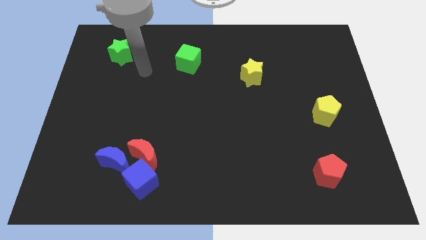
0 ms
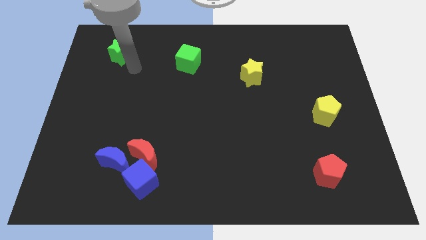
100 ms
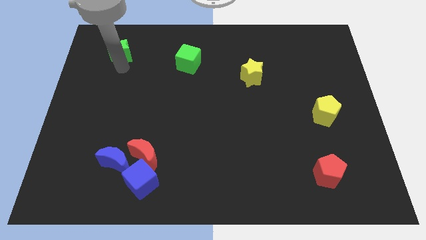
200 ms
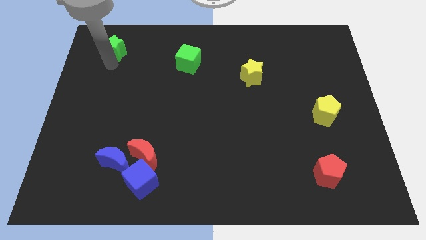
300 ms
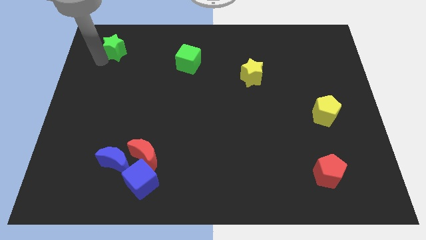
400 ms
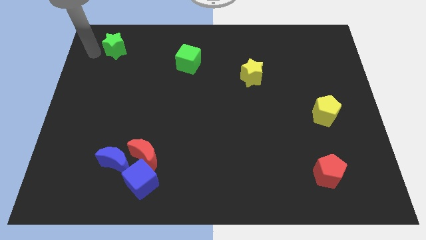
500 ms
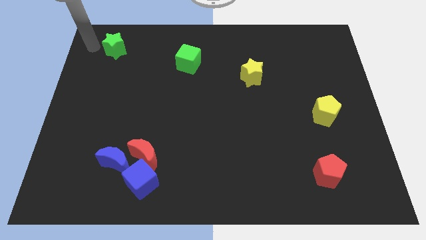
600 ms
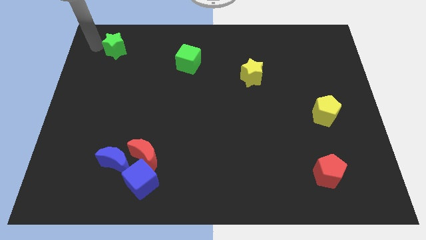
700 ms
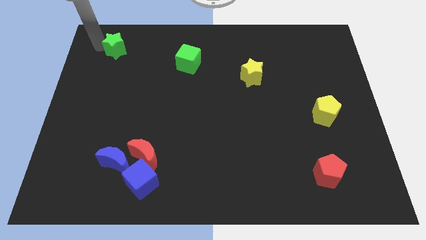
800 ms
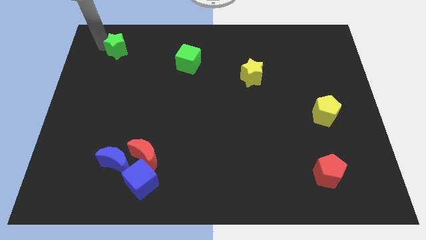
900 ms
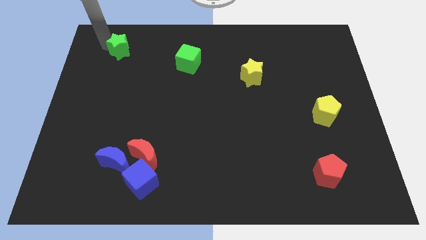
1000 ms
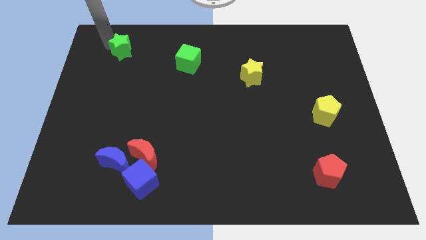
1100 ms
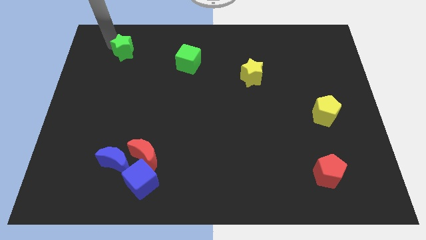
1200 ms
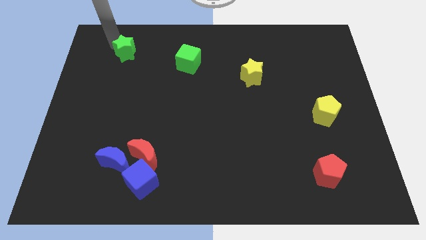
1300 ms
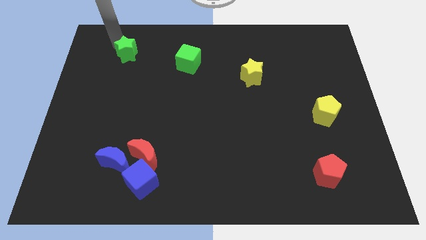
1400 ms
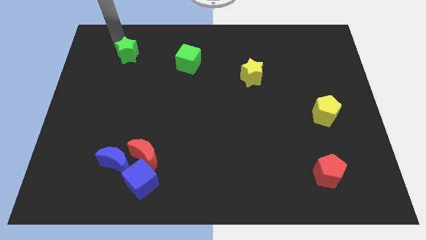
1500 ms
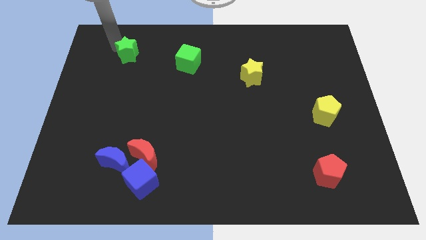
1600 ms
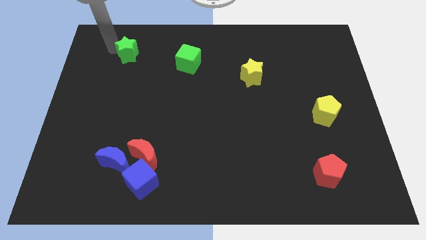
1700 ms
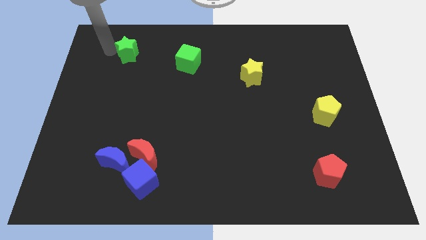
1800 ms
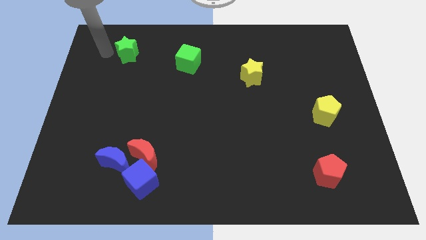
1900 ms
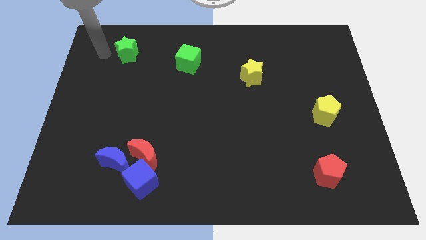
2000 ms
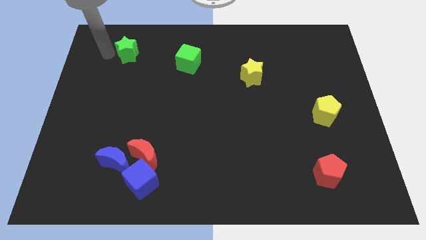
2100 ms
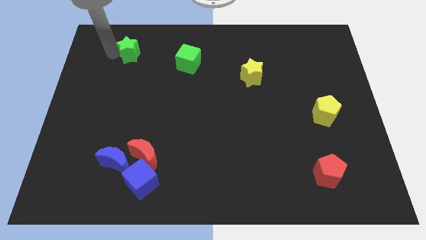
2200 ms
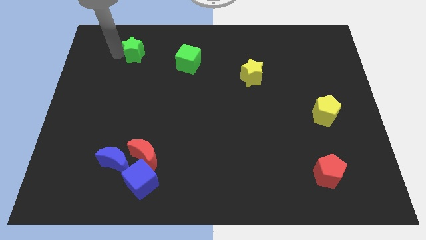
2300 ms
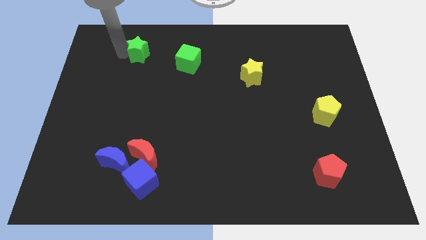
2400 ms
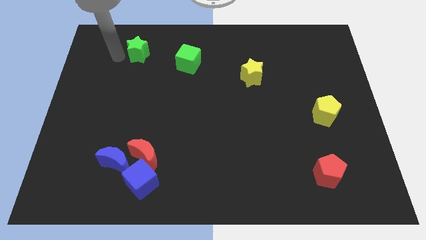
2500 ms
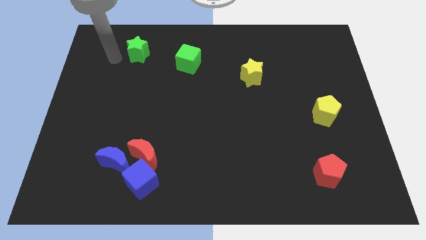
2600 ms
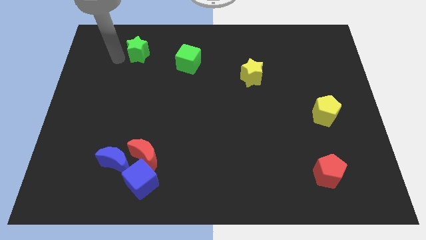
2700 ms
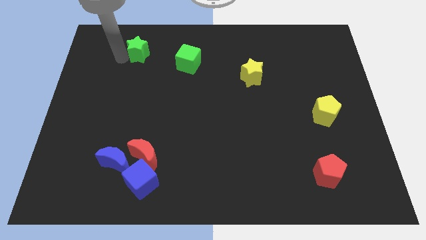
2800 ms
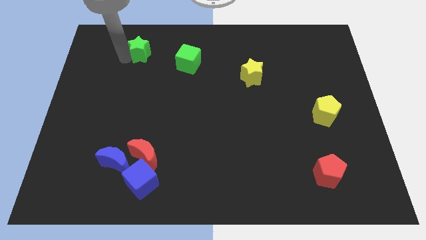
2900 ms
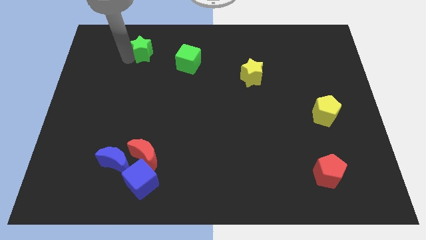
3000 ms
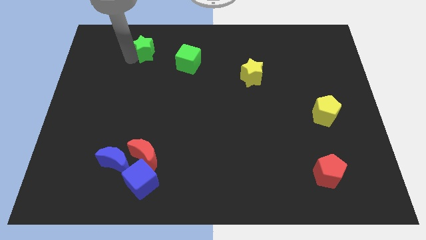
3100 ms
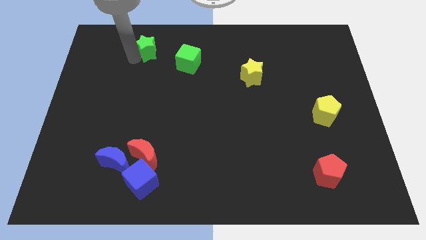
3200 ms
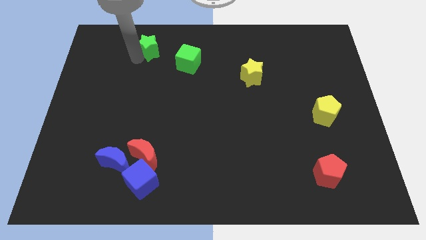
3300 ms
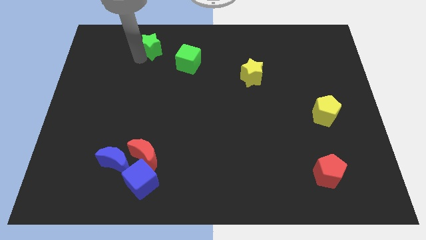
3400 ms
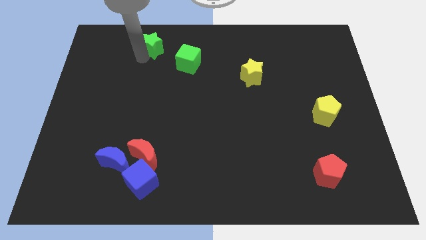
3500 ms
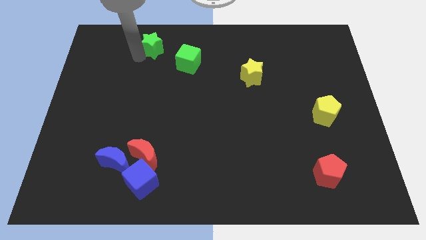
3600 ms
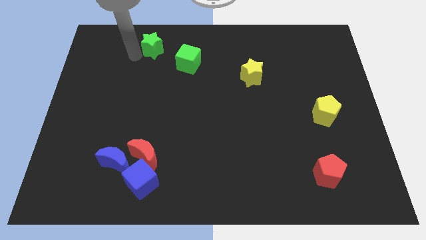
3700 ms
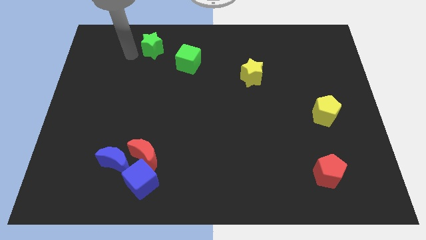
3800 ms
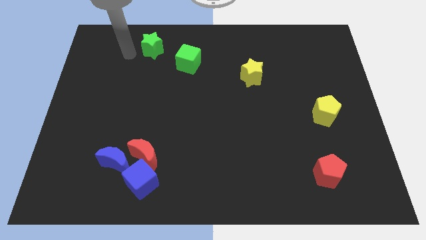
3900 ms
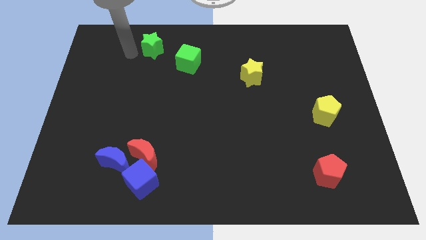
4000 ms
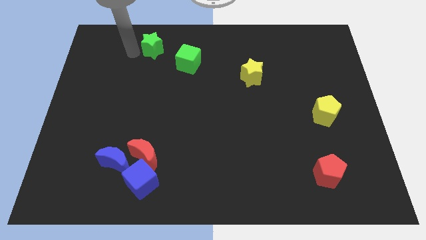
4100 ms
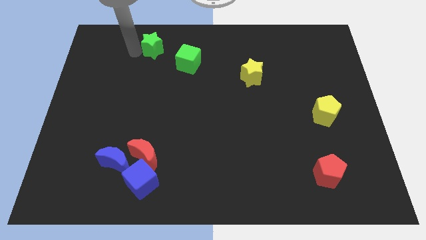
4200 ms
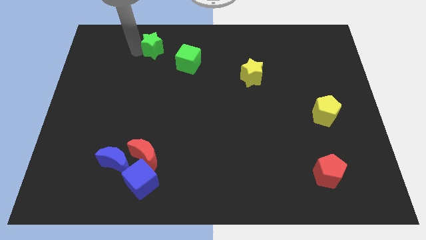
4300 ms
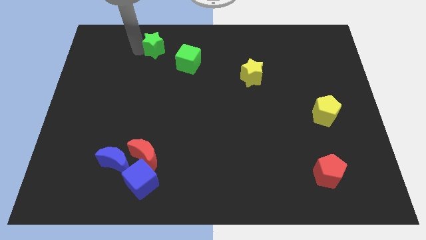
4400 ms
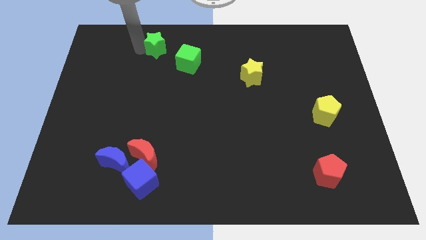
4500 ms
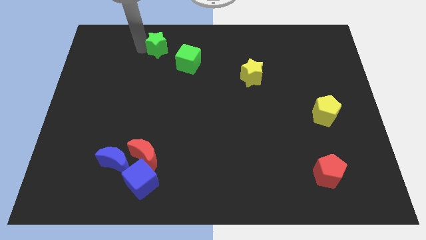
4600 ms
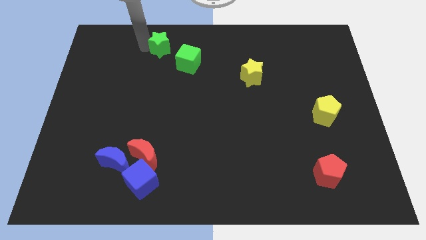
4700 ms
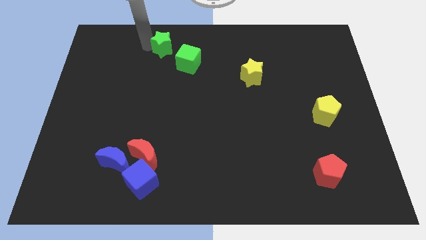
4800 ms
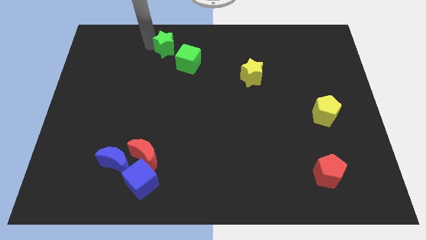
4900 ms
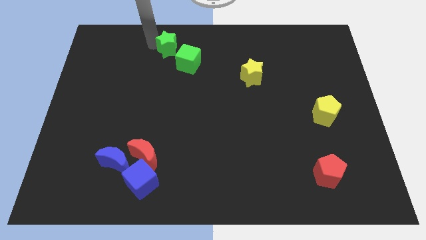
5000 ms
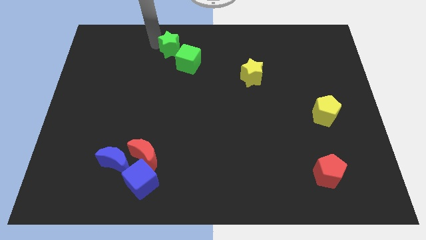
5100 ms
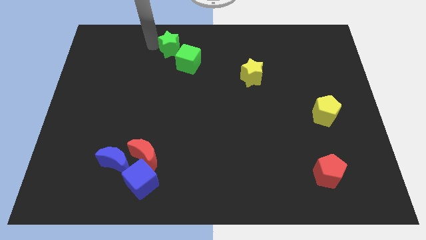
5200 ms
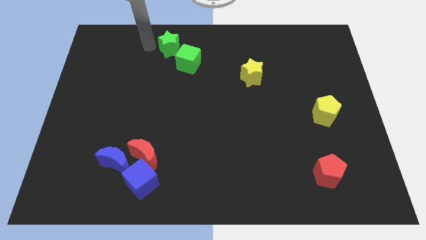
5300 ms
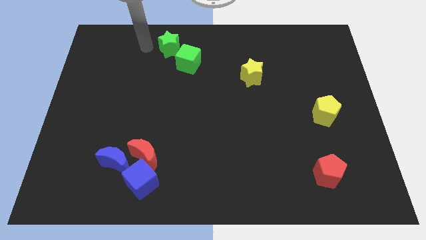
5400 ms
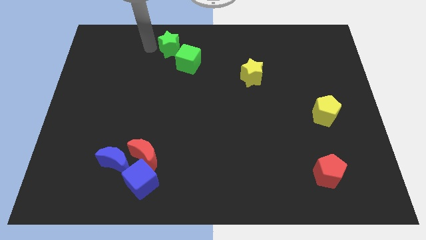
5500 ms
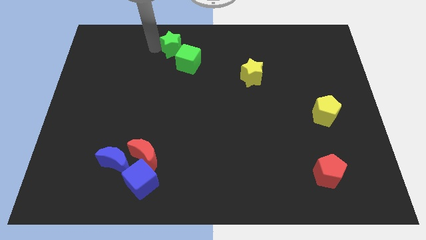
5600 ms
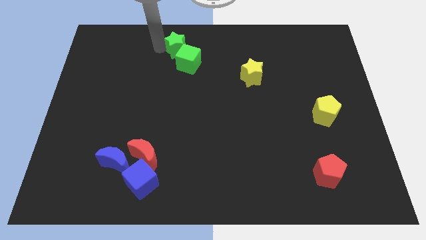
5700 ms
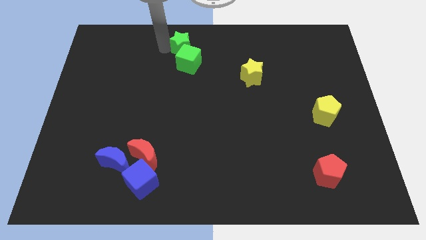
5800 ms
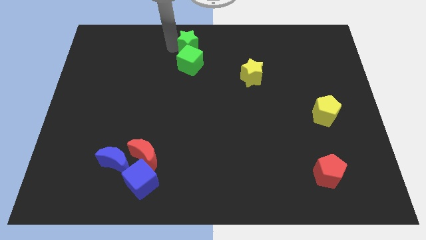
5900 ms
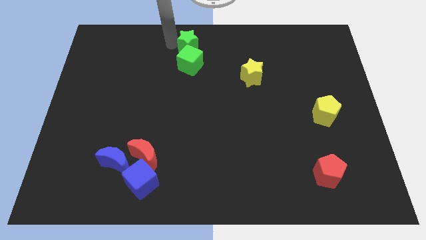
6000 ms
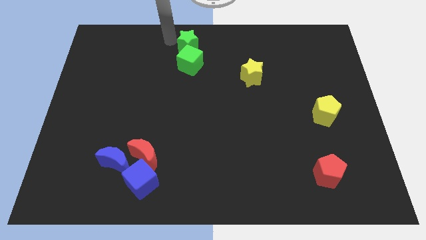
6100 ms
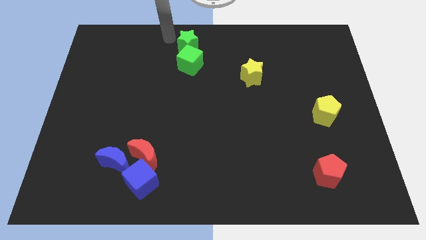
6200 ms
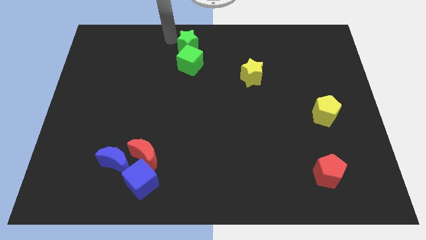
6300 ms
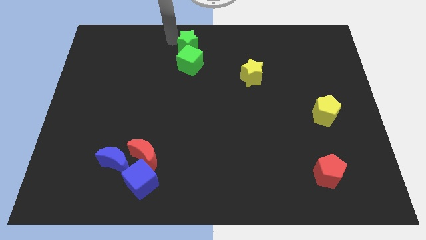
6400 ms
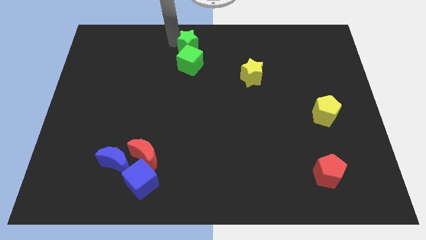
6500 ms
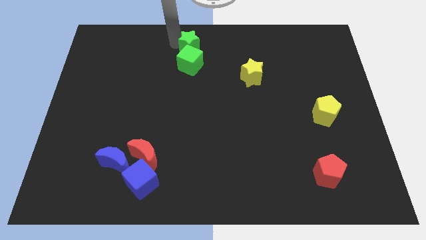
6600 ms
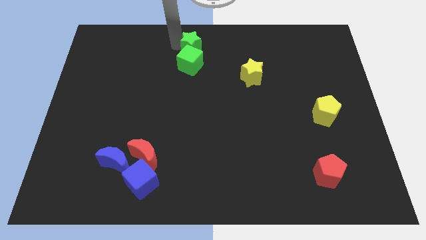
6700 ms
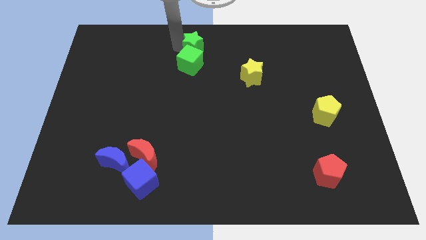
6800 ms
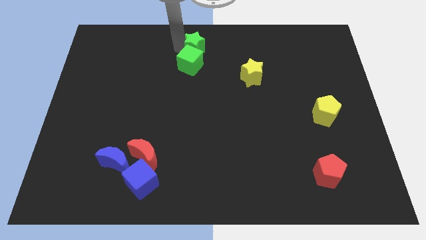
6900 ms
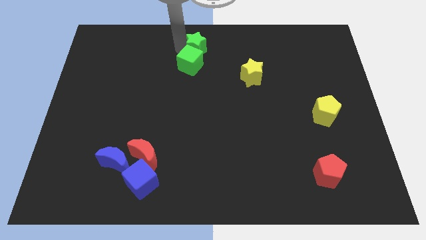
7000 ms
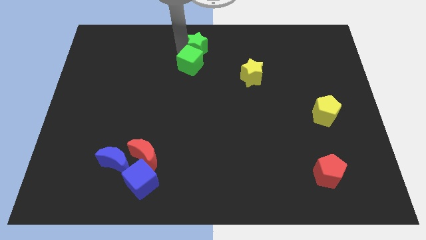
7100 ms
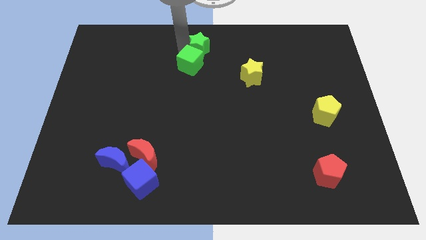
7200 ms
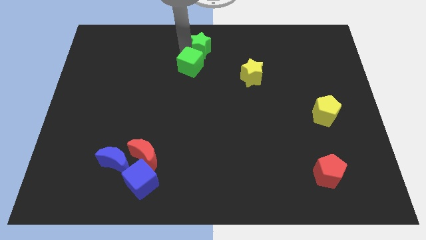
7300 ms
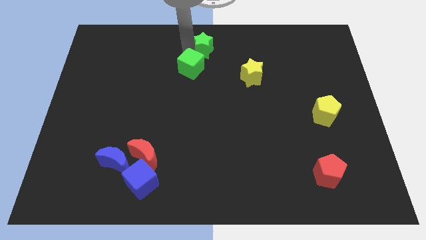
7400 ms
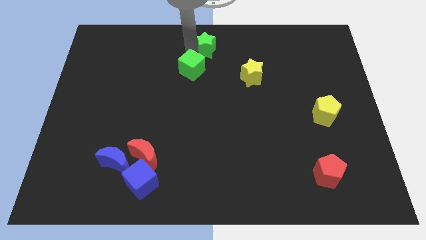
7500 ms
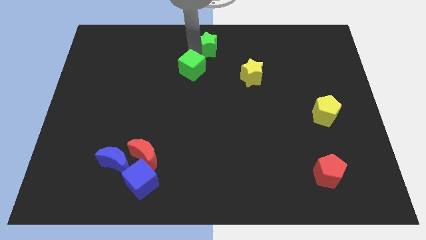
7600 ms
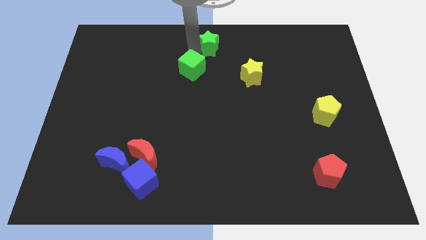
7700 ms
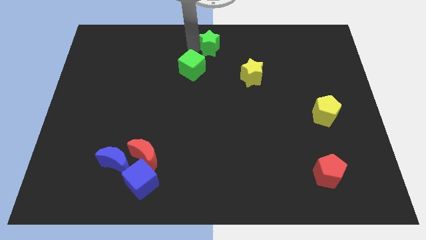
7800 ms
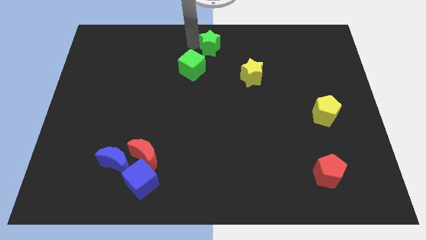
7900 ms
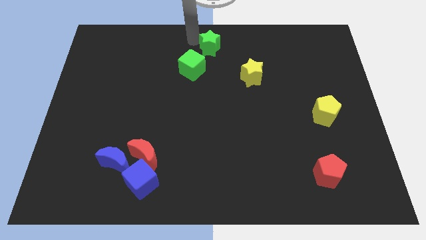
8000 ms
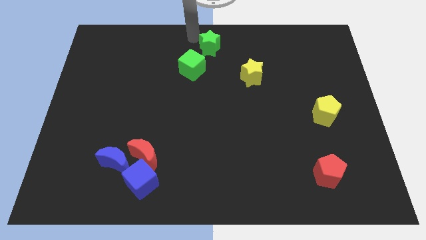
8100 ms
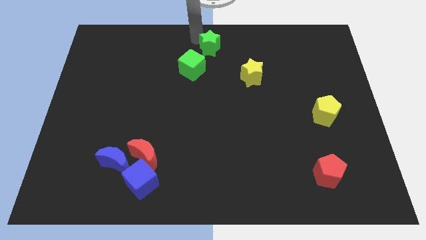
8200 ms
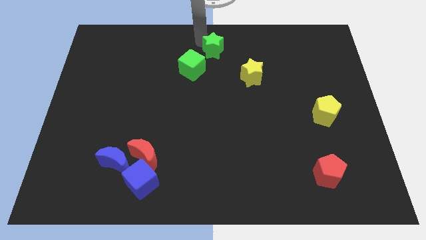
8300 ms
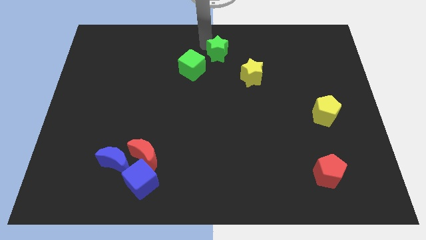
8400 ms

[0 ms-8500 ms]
move the green star to the top left side of the yellow star
